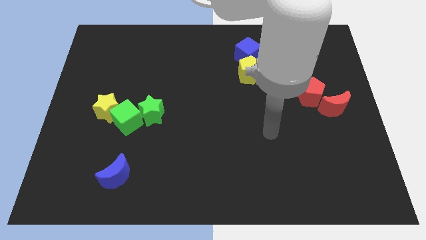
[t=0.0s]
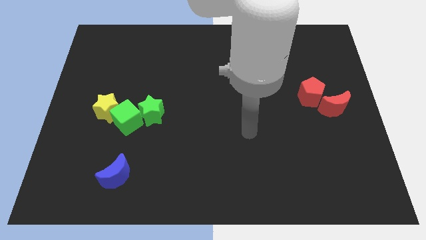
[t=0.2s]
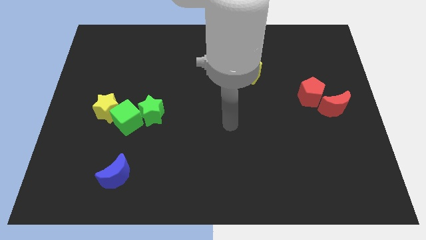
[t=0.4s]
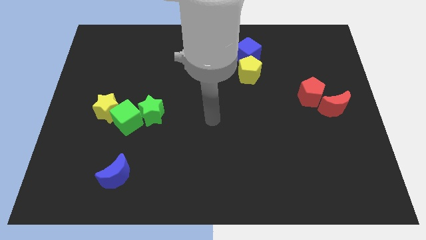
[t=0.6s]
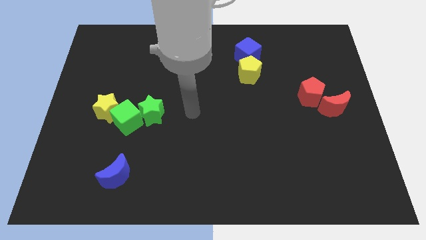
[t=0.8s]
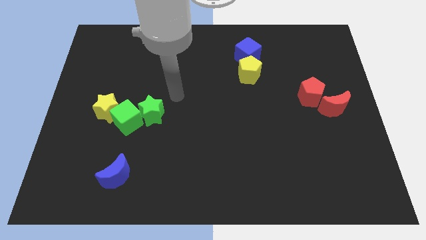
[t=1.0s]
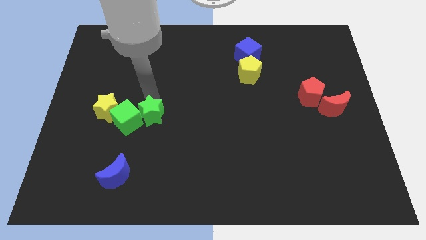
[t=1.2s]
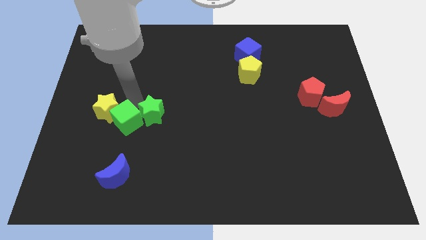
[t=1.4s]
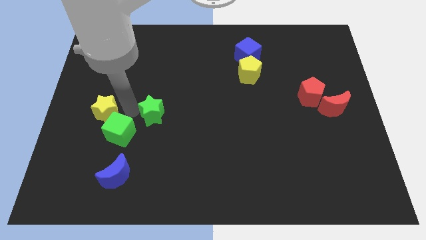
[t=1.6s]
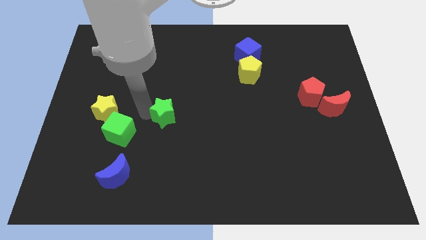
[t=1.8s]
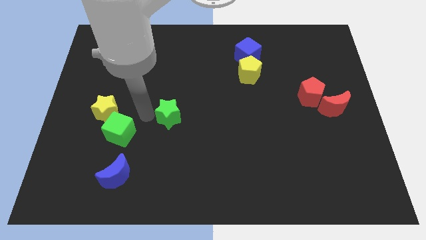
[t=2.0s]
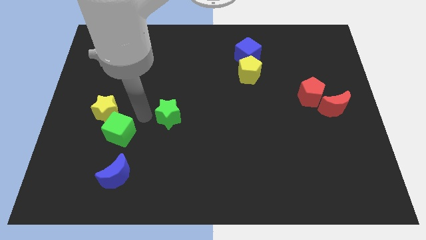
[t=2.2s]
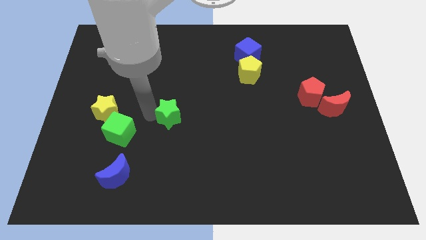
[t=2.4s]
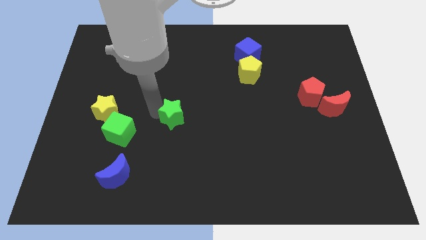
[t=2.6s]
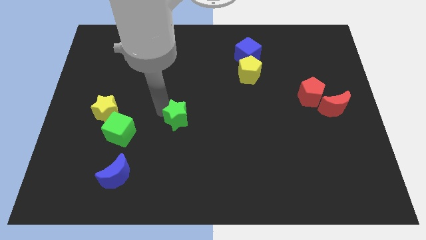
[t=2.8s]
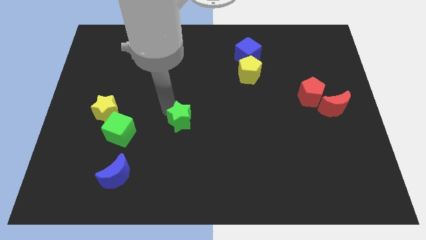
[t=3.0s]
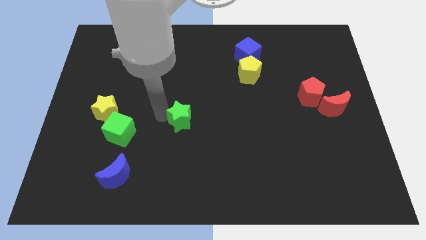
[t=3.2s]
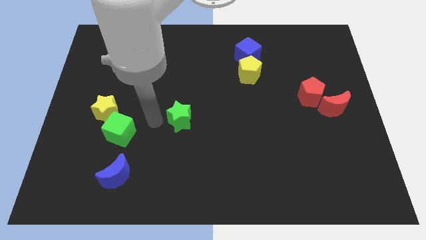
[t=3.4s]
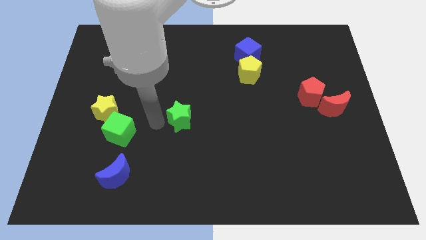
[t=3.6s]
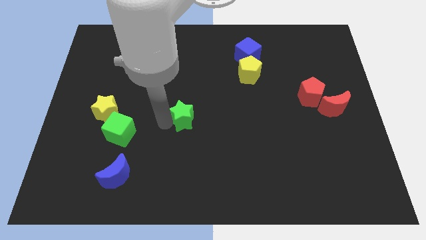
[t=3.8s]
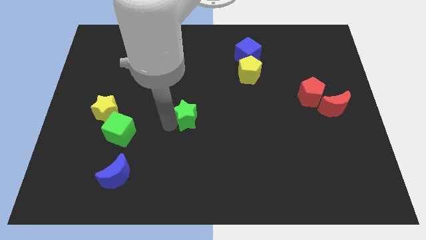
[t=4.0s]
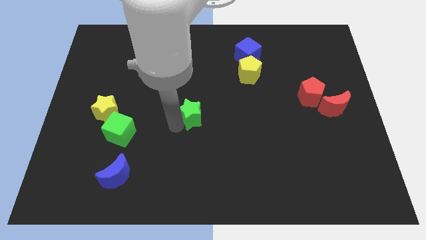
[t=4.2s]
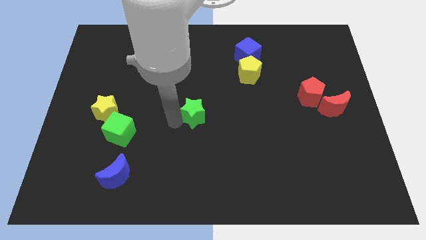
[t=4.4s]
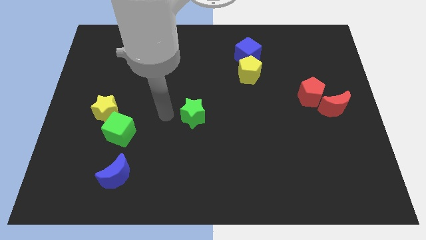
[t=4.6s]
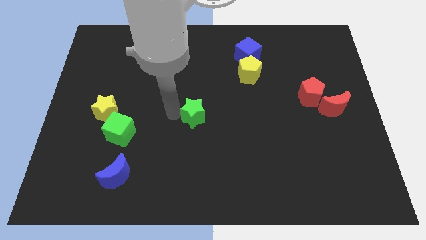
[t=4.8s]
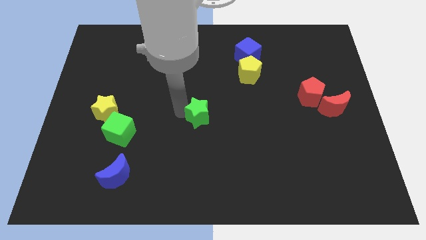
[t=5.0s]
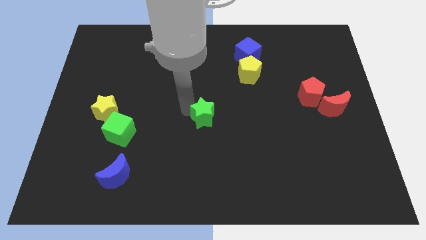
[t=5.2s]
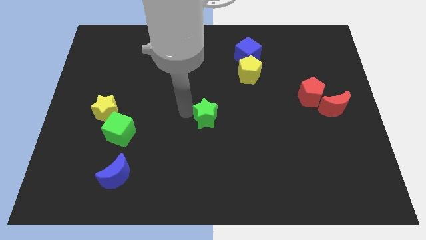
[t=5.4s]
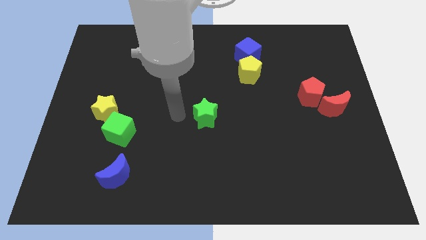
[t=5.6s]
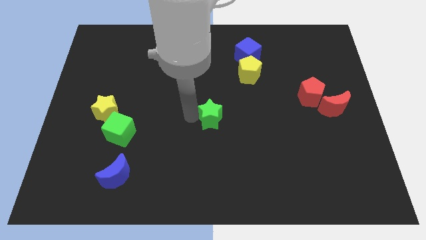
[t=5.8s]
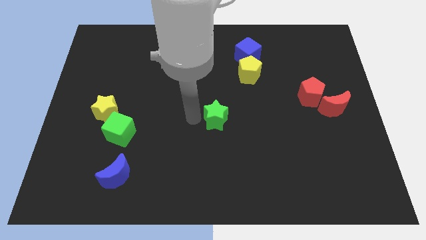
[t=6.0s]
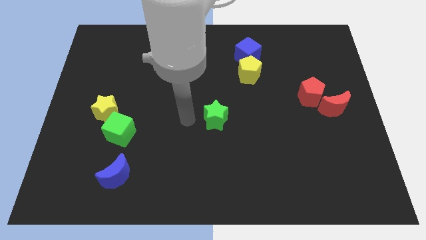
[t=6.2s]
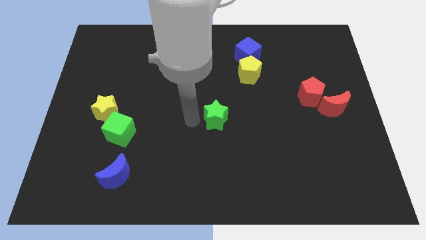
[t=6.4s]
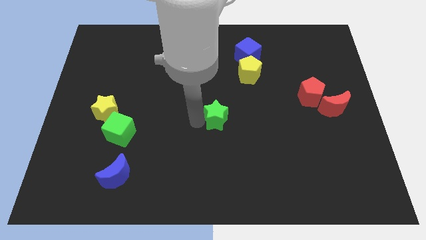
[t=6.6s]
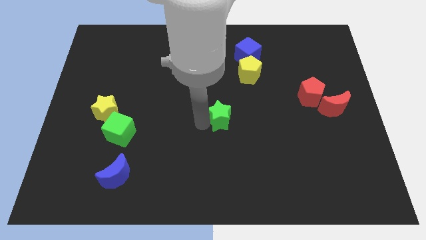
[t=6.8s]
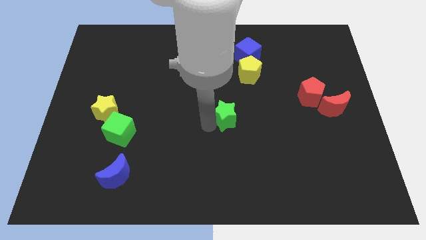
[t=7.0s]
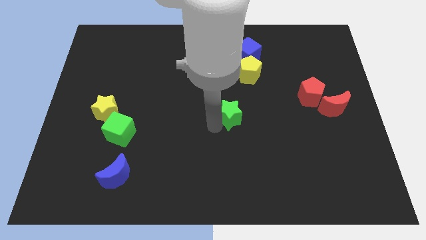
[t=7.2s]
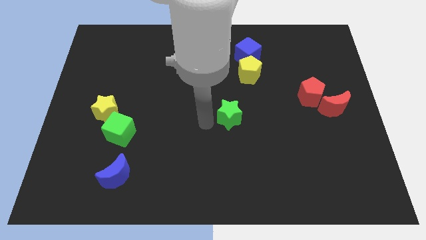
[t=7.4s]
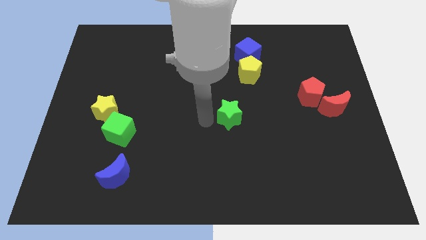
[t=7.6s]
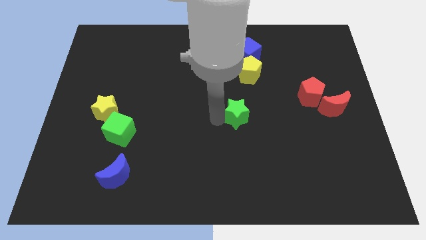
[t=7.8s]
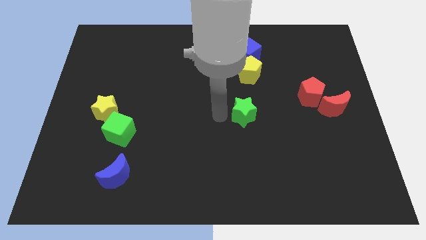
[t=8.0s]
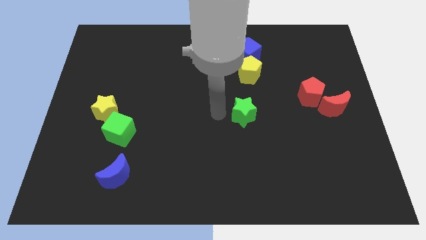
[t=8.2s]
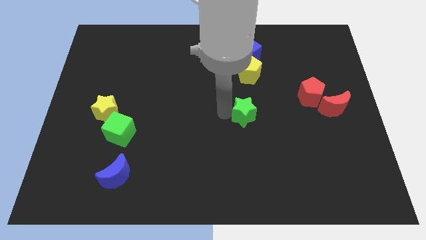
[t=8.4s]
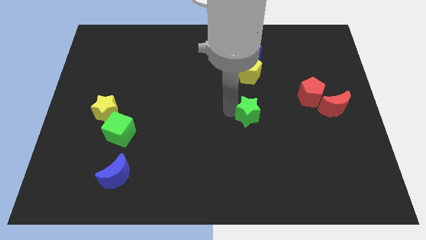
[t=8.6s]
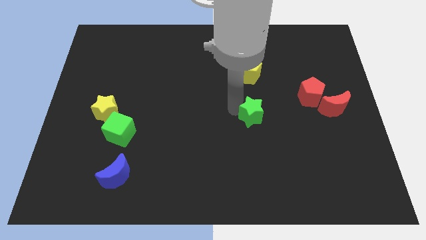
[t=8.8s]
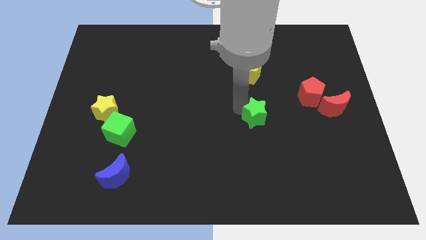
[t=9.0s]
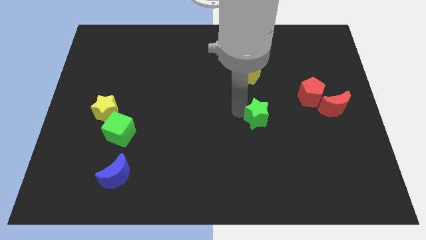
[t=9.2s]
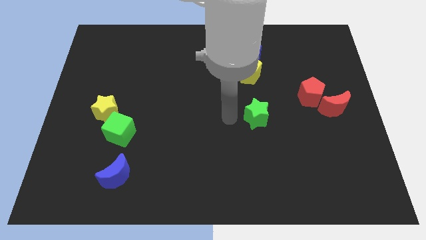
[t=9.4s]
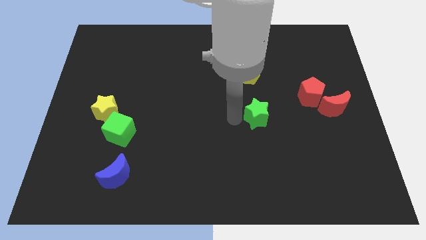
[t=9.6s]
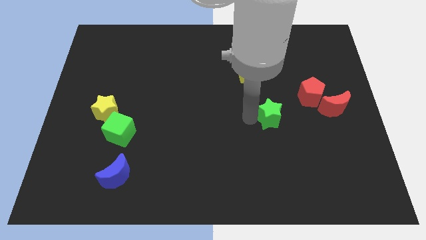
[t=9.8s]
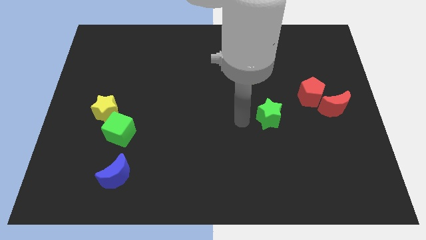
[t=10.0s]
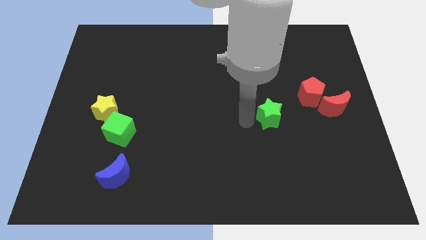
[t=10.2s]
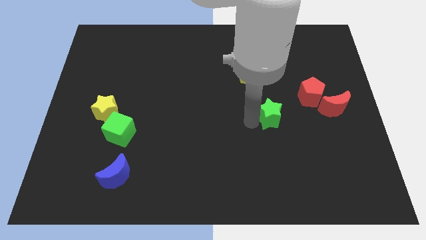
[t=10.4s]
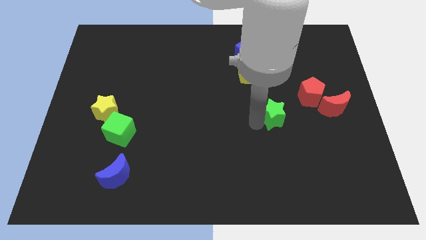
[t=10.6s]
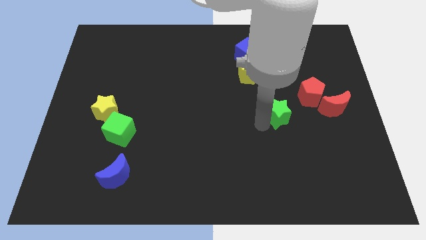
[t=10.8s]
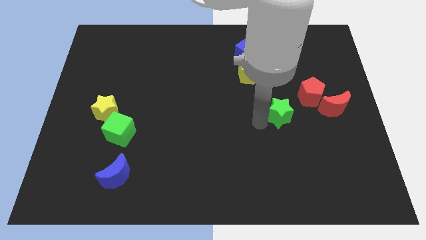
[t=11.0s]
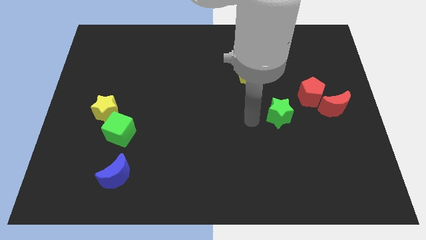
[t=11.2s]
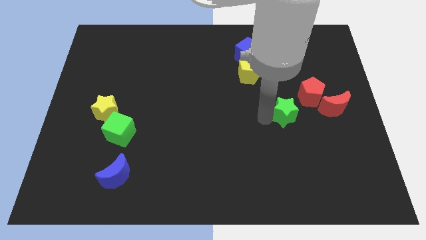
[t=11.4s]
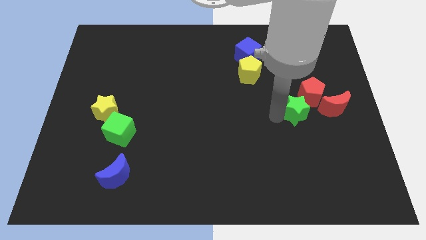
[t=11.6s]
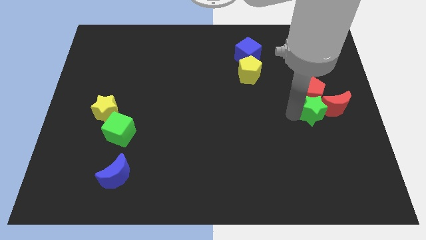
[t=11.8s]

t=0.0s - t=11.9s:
put the green star towards the red moon

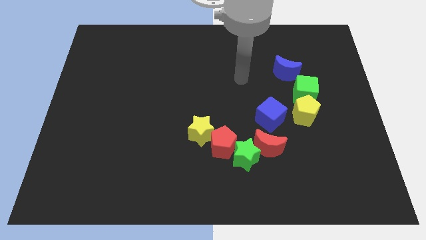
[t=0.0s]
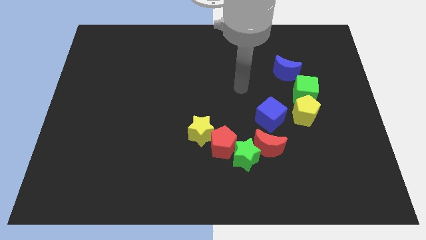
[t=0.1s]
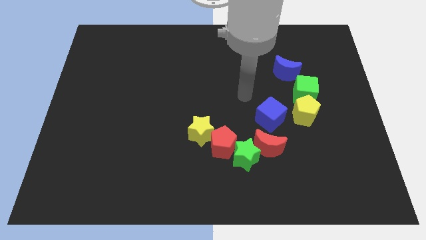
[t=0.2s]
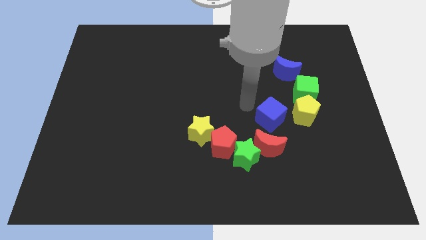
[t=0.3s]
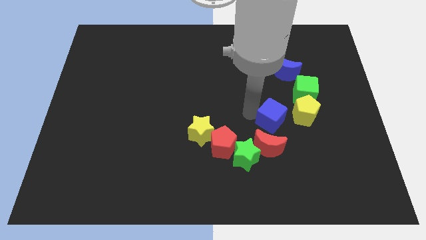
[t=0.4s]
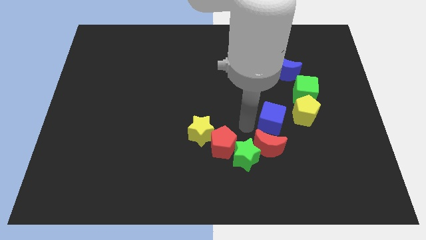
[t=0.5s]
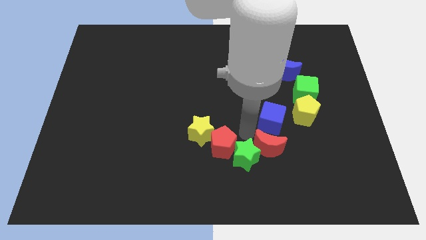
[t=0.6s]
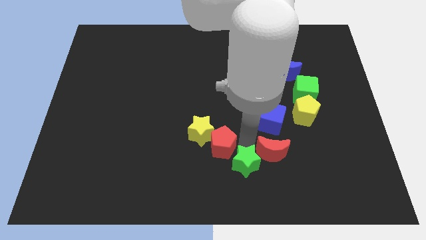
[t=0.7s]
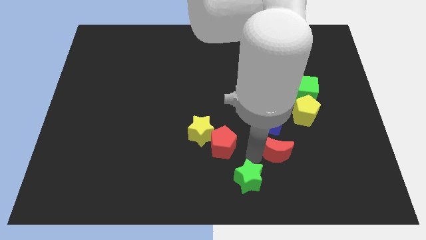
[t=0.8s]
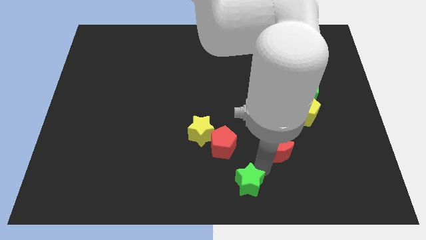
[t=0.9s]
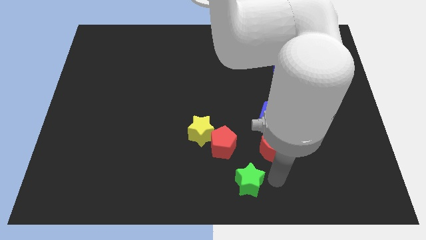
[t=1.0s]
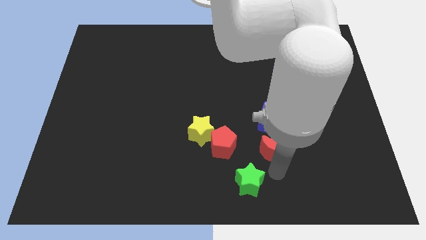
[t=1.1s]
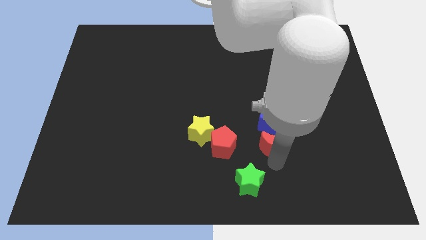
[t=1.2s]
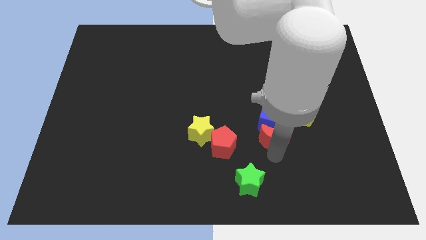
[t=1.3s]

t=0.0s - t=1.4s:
move the red moon towards the blue cube
